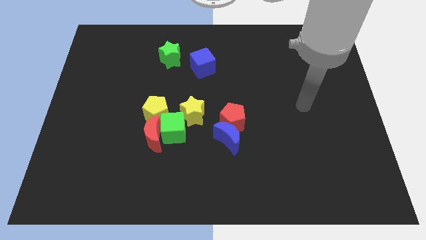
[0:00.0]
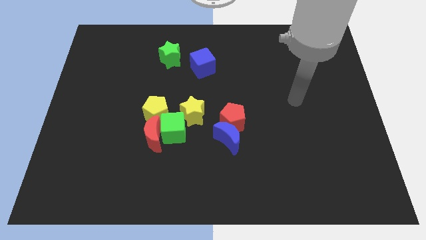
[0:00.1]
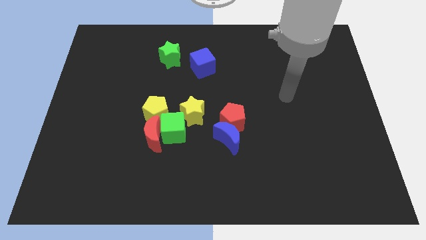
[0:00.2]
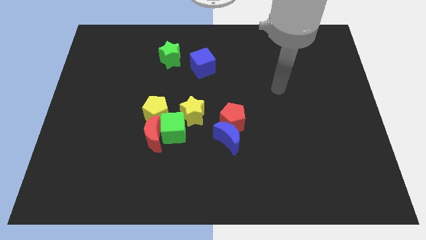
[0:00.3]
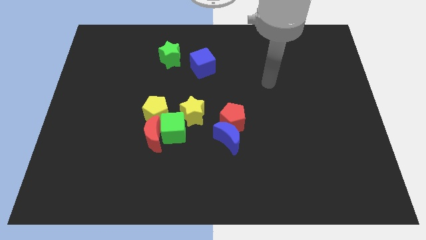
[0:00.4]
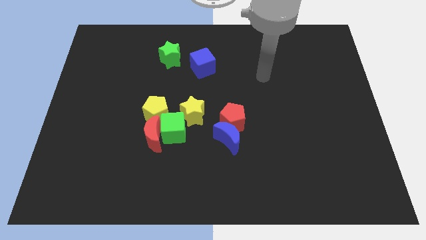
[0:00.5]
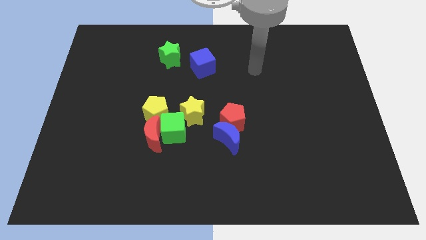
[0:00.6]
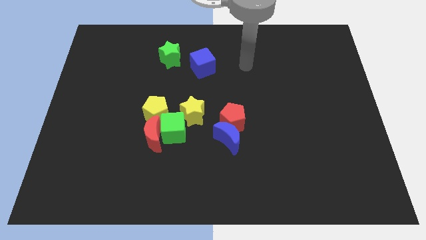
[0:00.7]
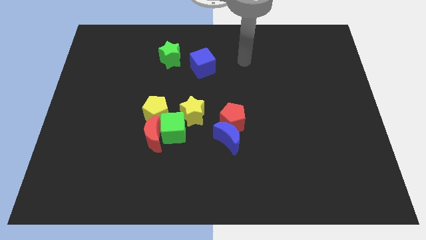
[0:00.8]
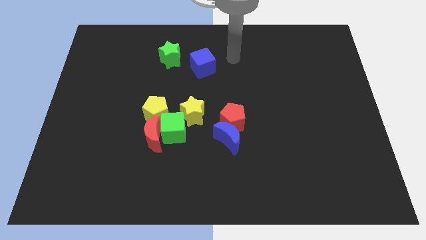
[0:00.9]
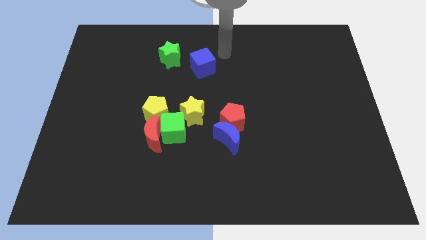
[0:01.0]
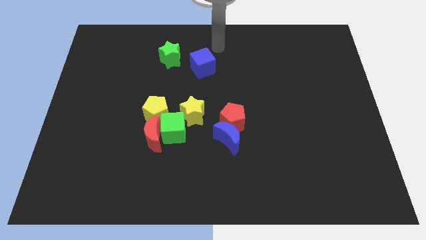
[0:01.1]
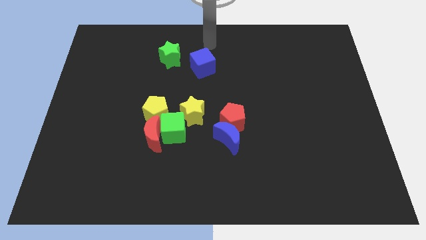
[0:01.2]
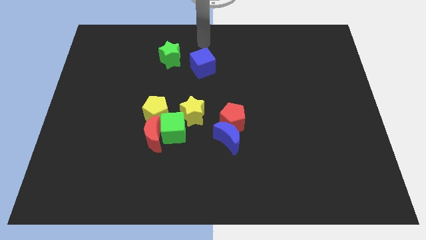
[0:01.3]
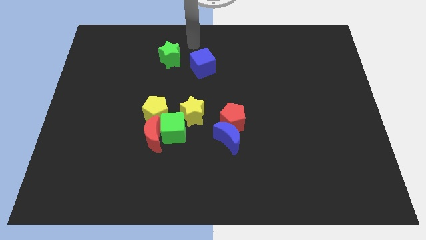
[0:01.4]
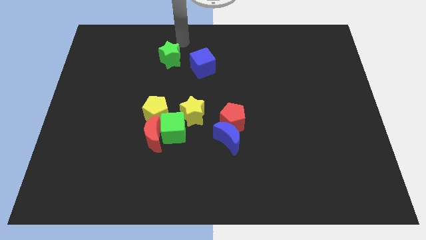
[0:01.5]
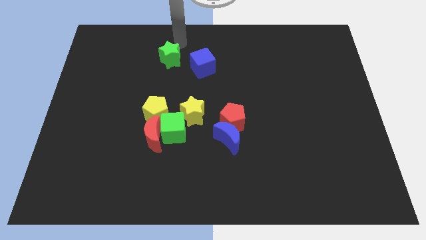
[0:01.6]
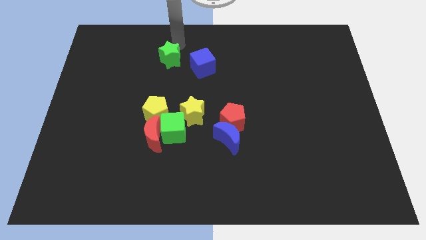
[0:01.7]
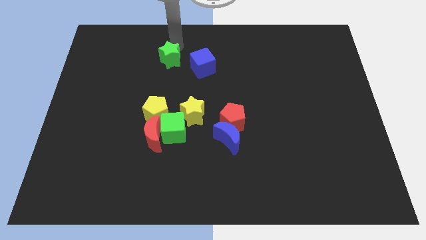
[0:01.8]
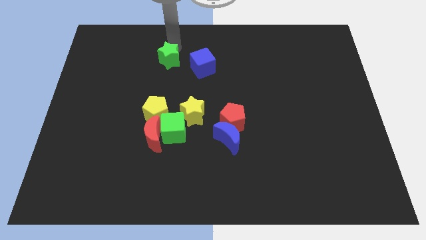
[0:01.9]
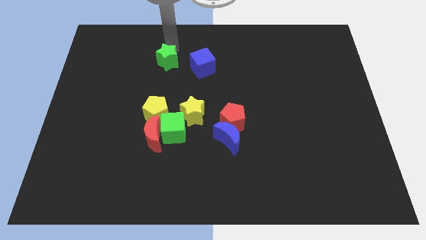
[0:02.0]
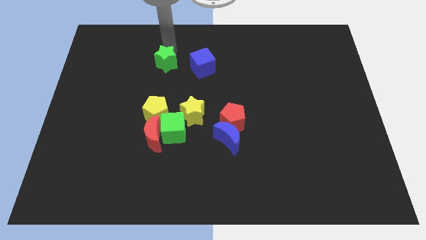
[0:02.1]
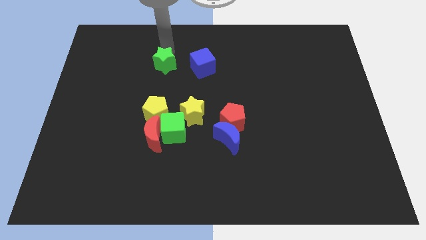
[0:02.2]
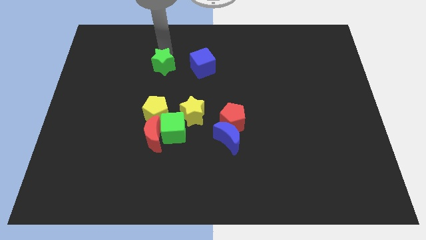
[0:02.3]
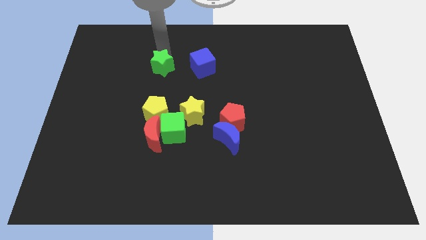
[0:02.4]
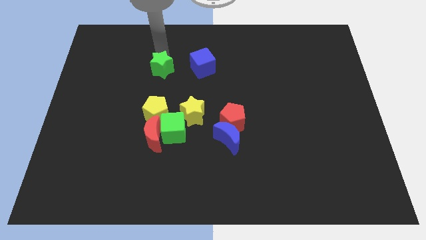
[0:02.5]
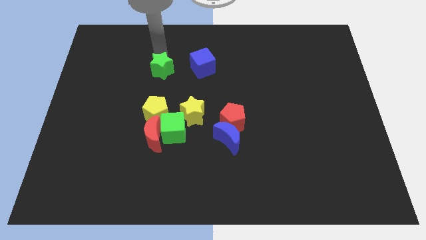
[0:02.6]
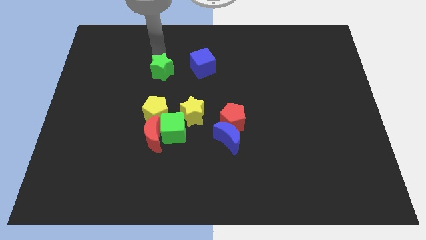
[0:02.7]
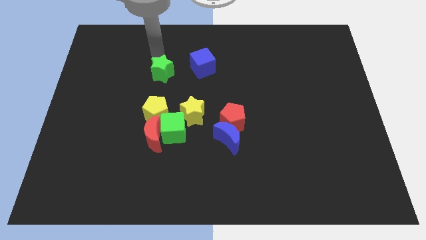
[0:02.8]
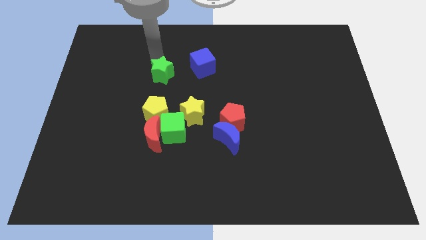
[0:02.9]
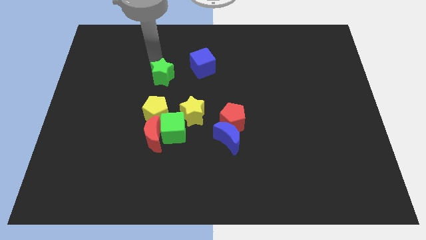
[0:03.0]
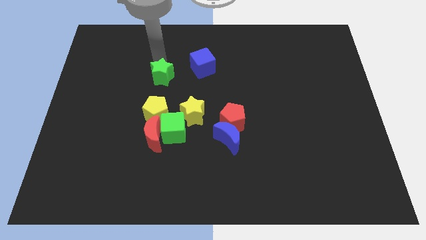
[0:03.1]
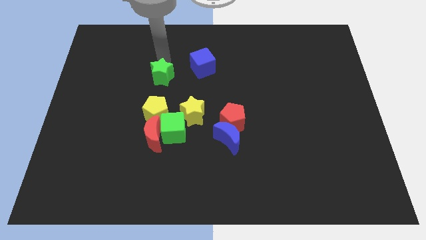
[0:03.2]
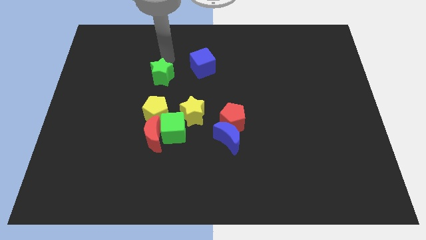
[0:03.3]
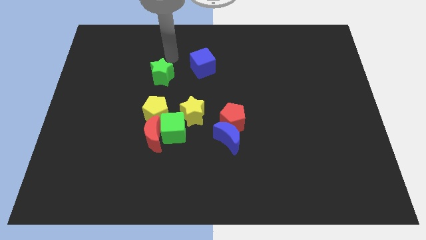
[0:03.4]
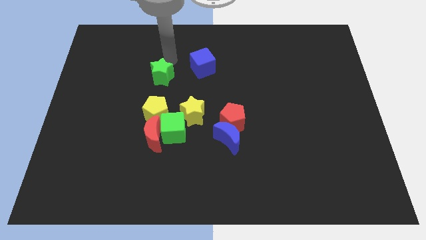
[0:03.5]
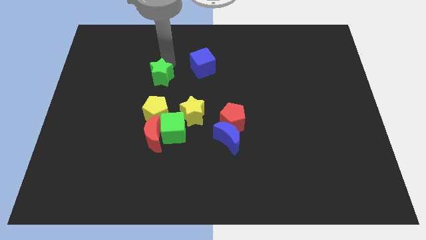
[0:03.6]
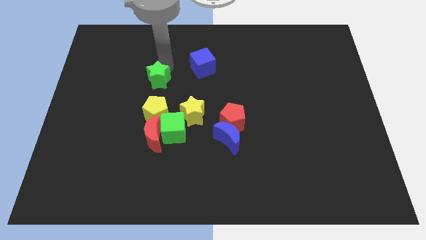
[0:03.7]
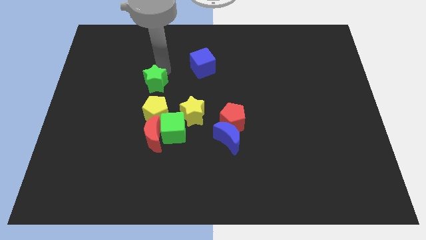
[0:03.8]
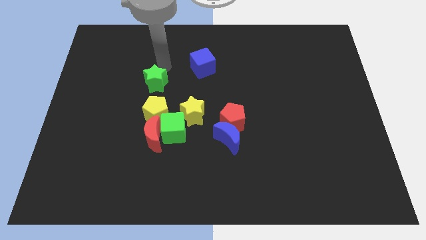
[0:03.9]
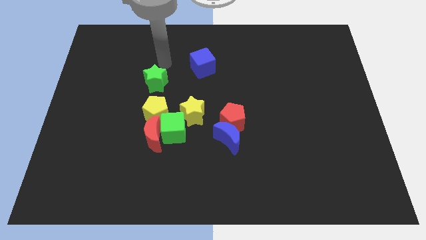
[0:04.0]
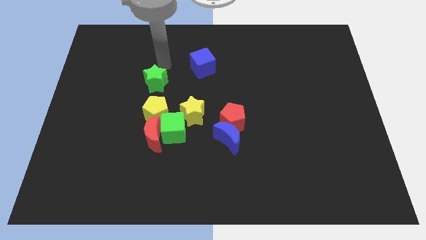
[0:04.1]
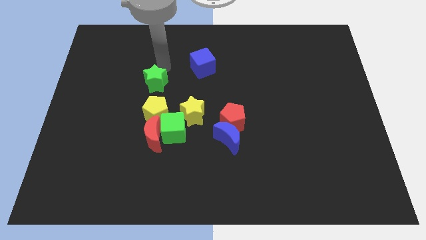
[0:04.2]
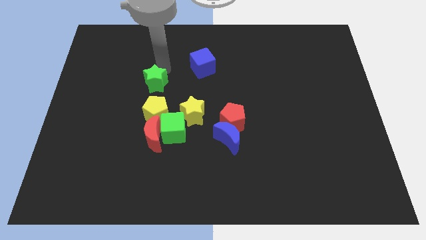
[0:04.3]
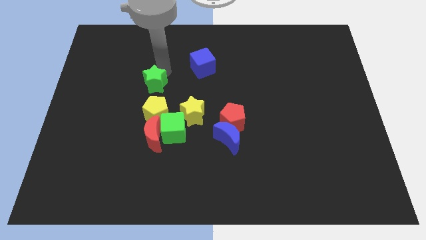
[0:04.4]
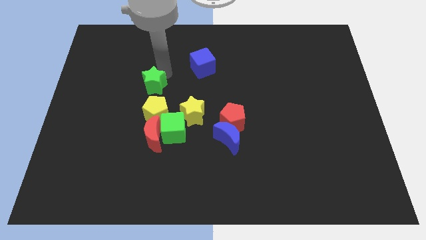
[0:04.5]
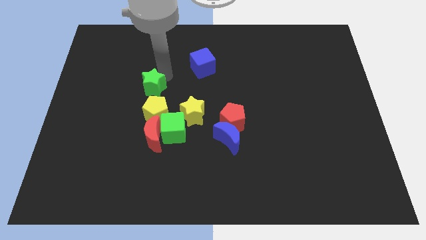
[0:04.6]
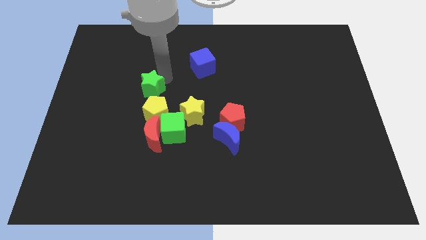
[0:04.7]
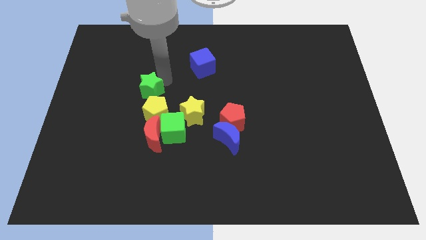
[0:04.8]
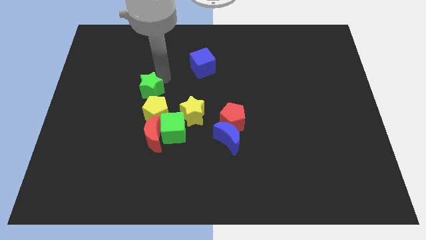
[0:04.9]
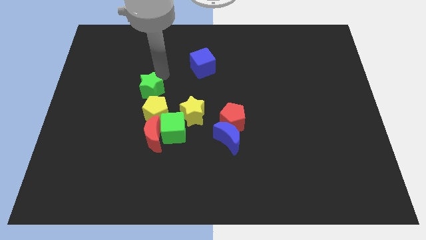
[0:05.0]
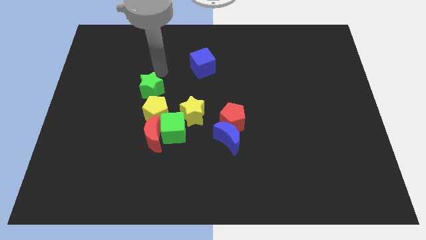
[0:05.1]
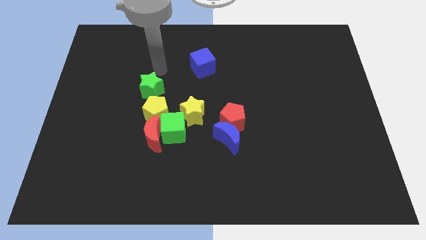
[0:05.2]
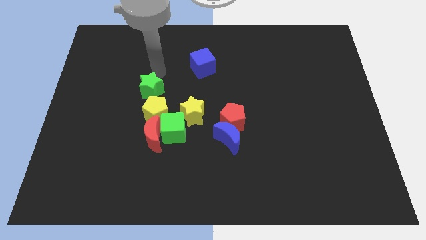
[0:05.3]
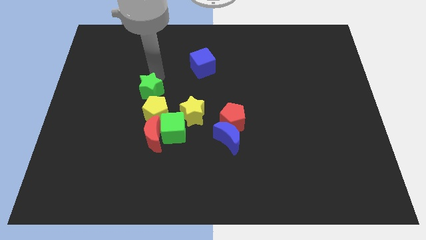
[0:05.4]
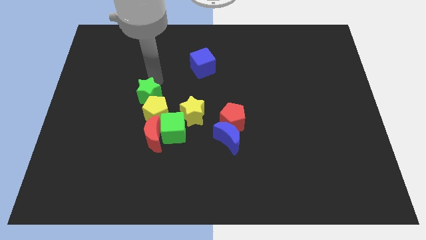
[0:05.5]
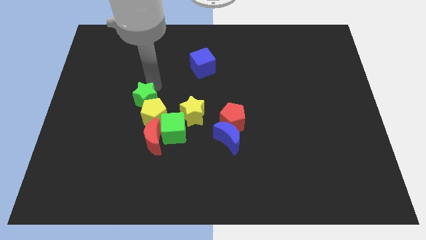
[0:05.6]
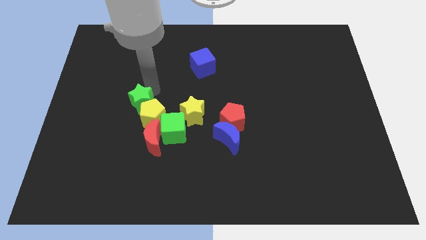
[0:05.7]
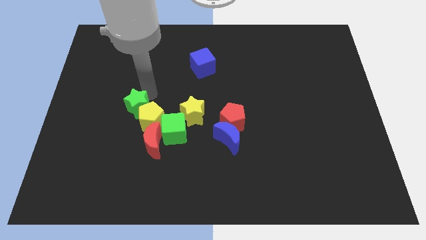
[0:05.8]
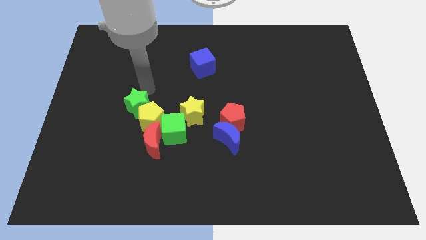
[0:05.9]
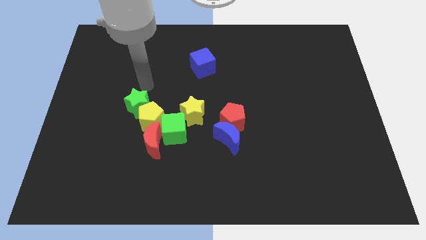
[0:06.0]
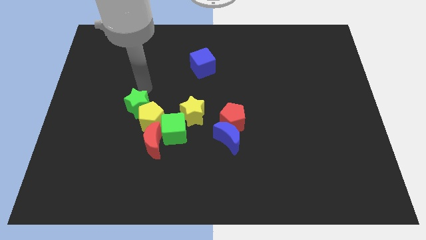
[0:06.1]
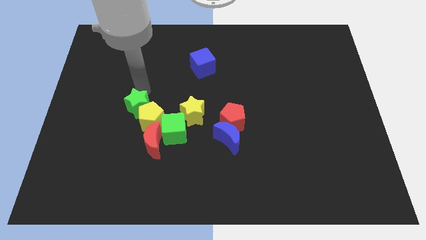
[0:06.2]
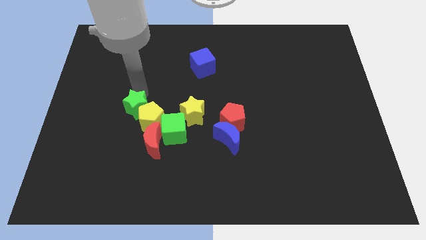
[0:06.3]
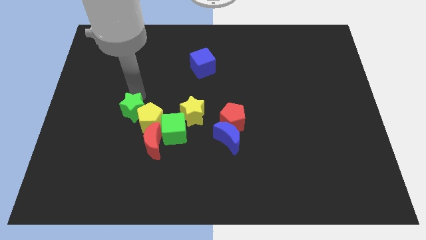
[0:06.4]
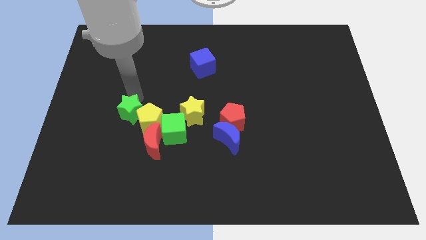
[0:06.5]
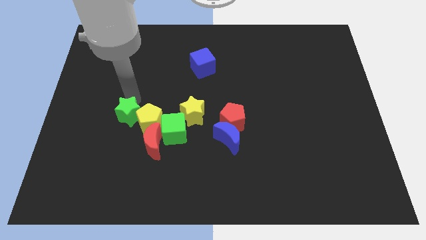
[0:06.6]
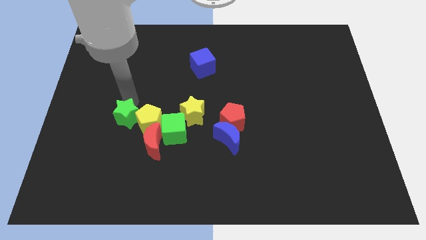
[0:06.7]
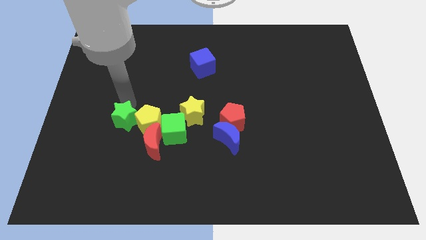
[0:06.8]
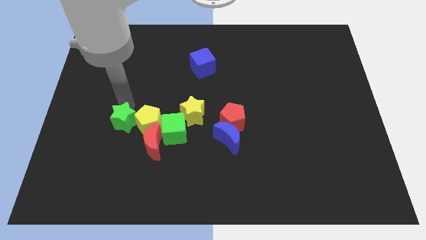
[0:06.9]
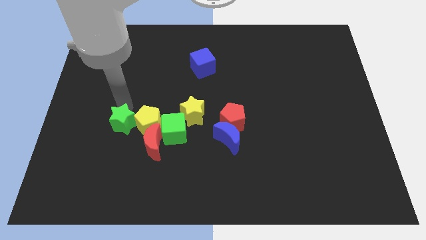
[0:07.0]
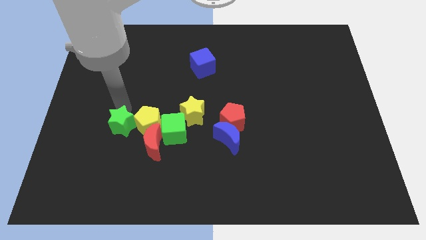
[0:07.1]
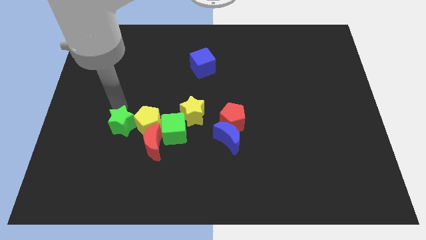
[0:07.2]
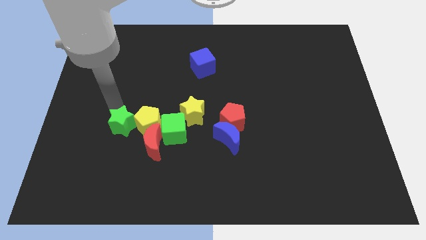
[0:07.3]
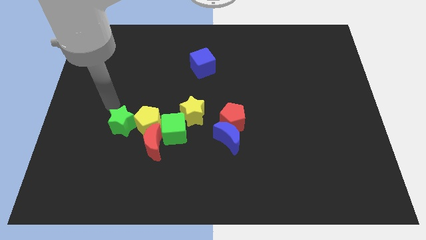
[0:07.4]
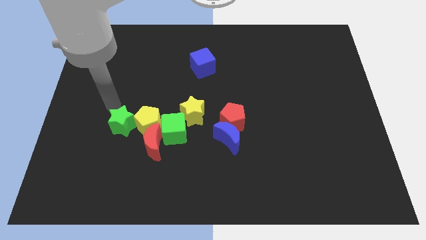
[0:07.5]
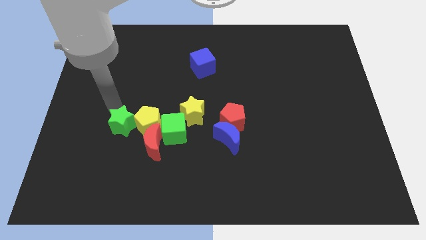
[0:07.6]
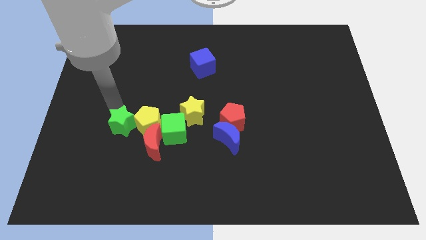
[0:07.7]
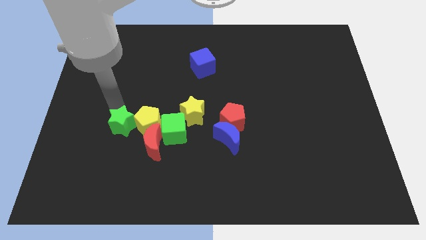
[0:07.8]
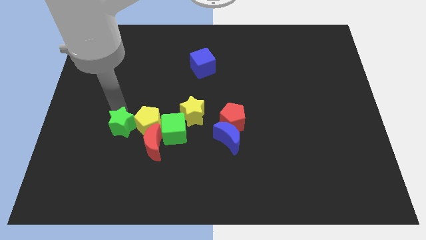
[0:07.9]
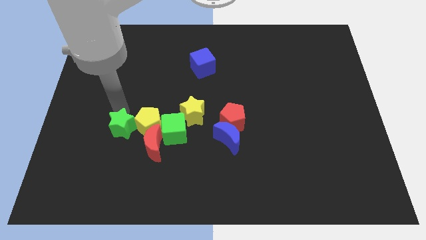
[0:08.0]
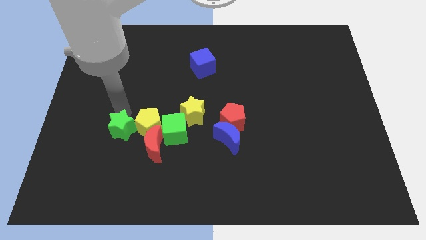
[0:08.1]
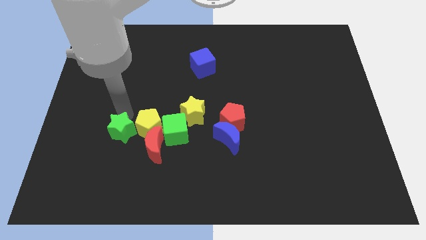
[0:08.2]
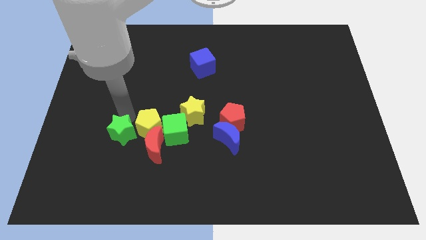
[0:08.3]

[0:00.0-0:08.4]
push the green star down
